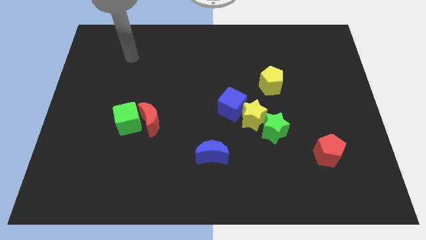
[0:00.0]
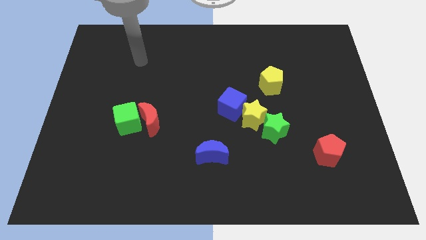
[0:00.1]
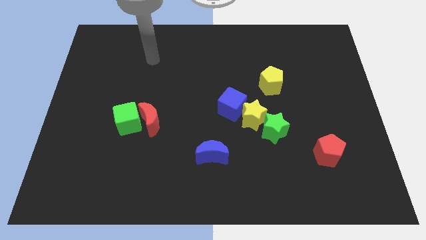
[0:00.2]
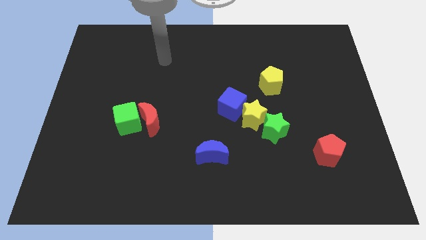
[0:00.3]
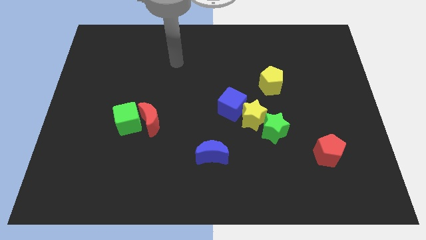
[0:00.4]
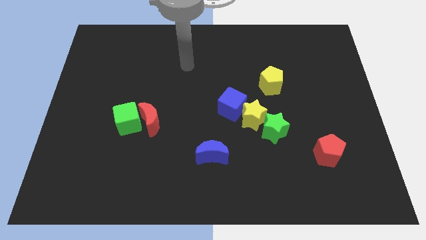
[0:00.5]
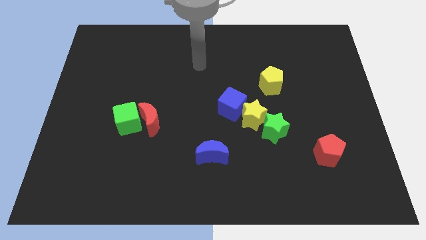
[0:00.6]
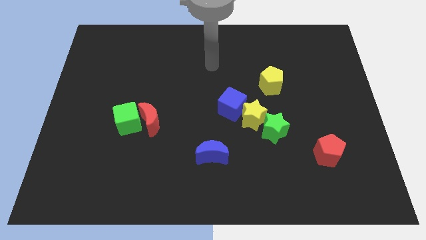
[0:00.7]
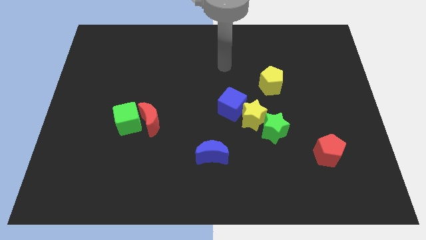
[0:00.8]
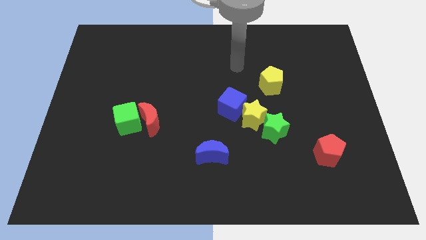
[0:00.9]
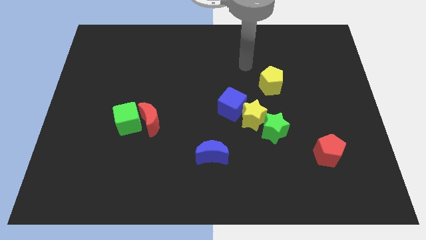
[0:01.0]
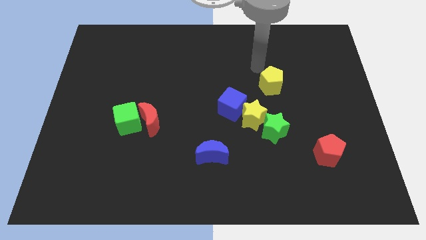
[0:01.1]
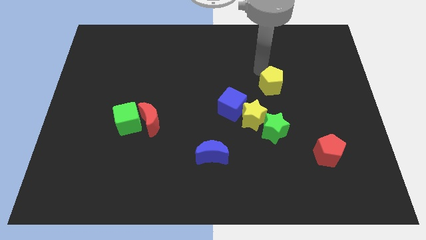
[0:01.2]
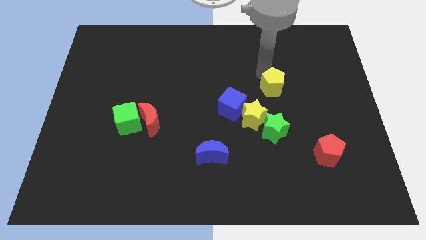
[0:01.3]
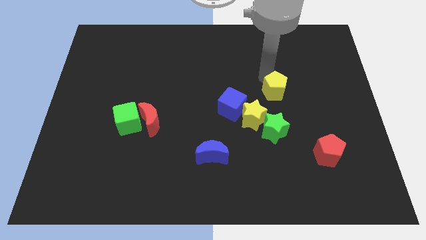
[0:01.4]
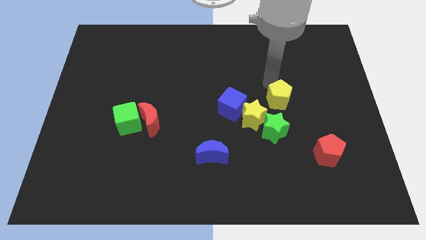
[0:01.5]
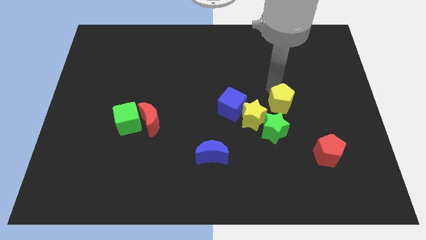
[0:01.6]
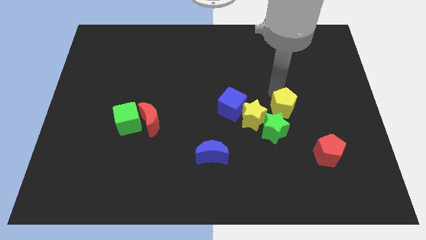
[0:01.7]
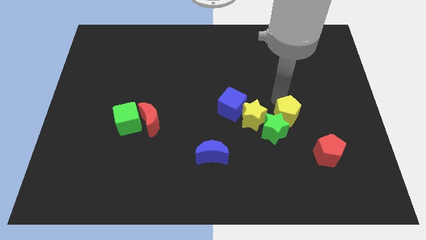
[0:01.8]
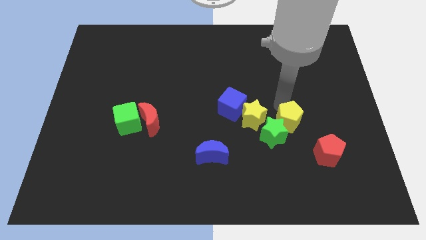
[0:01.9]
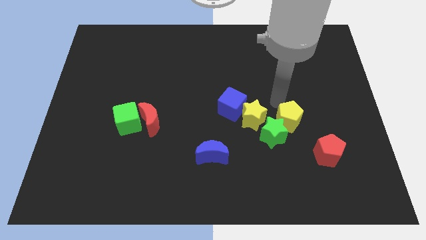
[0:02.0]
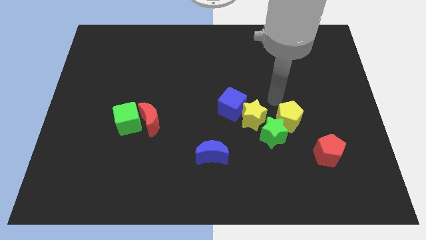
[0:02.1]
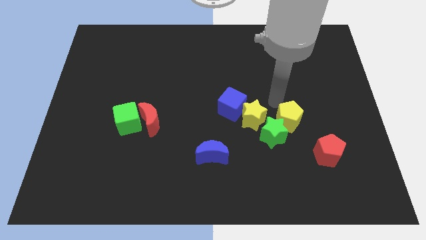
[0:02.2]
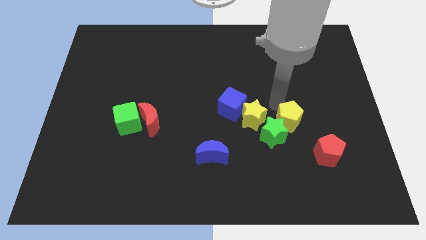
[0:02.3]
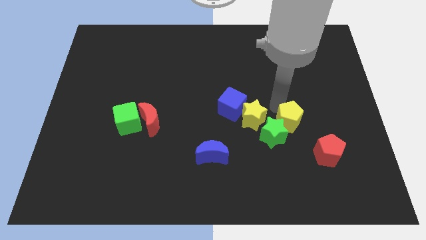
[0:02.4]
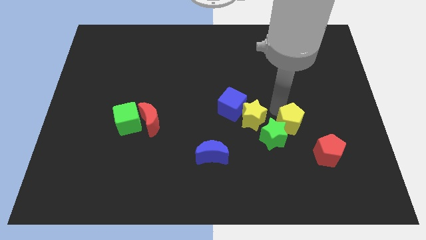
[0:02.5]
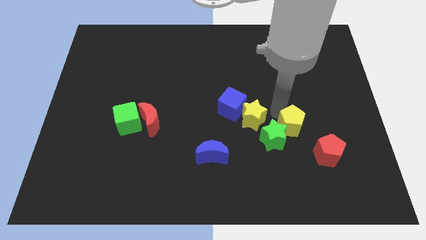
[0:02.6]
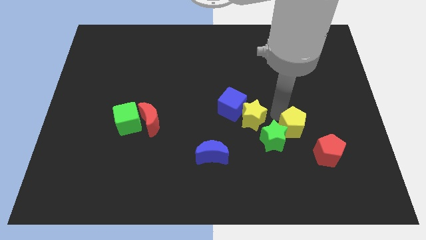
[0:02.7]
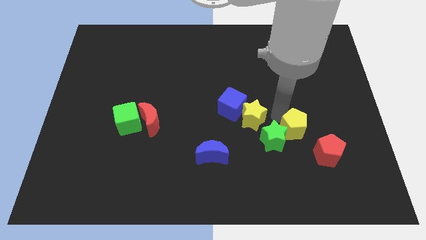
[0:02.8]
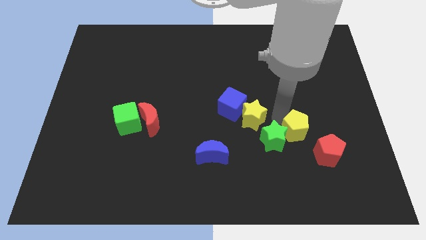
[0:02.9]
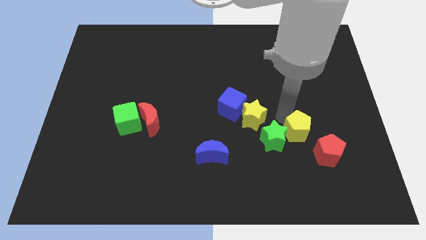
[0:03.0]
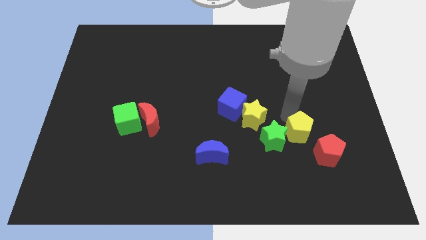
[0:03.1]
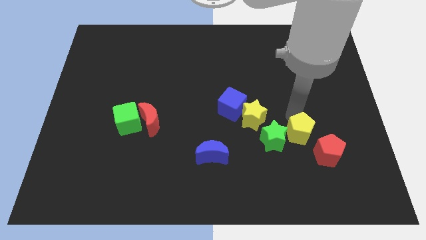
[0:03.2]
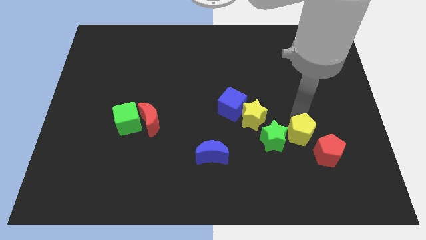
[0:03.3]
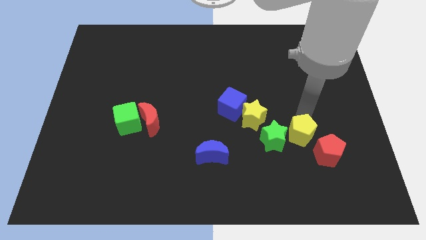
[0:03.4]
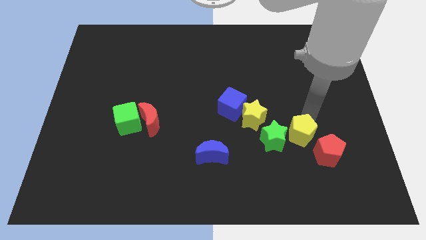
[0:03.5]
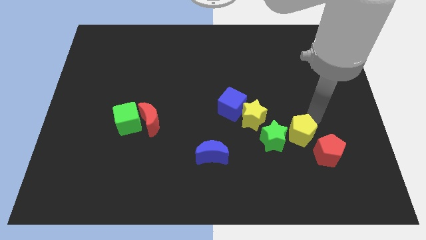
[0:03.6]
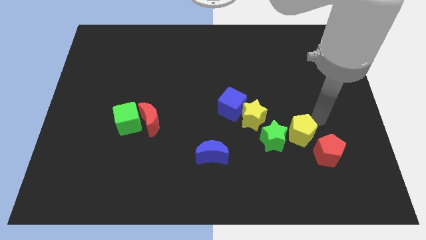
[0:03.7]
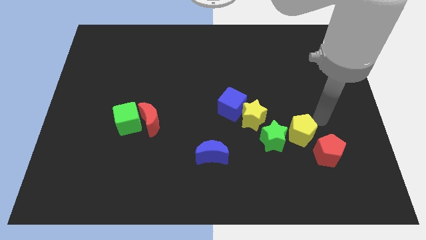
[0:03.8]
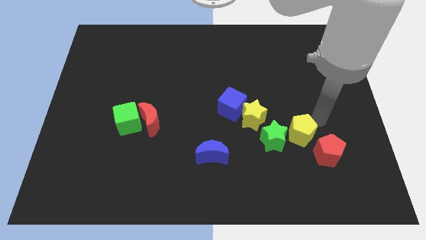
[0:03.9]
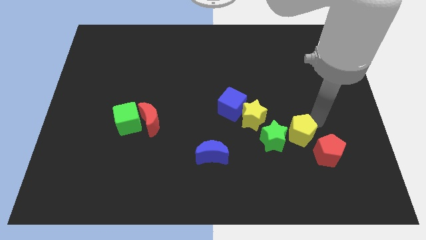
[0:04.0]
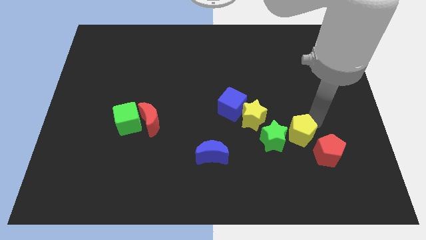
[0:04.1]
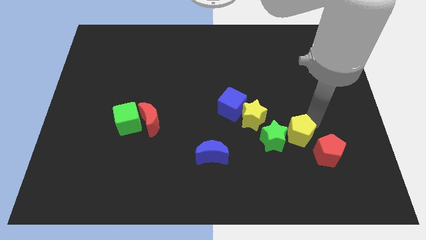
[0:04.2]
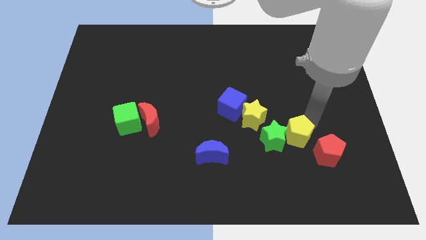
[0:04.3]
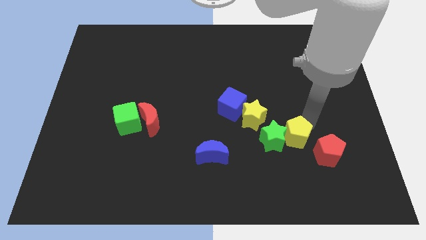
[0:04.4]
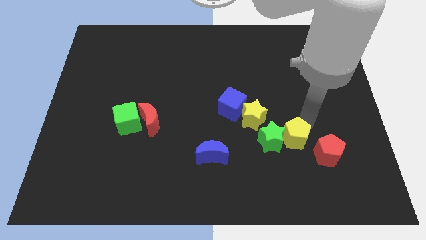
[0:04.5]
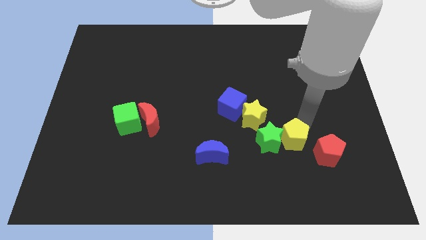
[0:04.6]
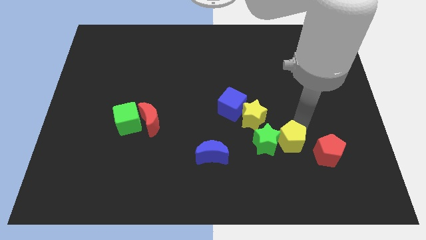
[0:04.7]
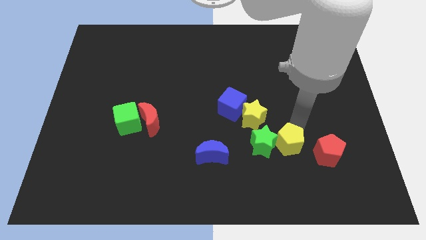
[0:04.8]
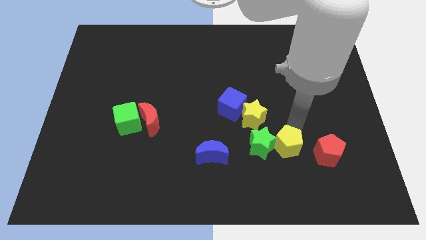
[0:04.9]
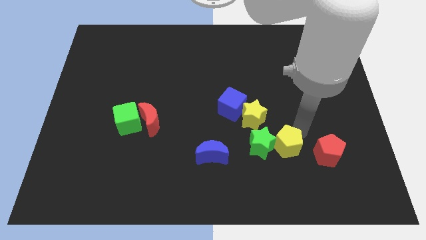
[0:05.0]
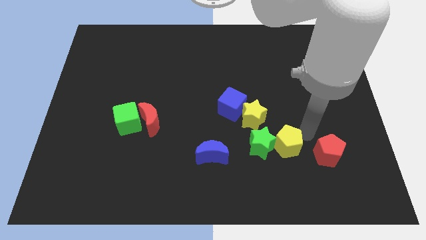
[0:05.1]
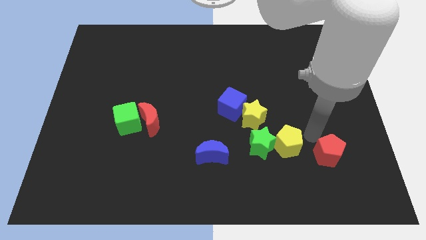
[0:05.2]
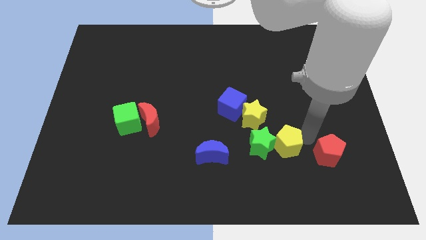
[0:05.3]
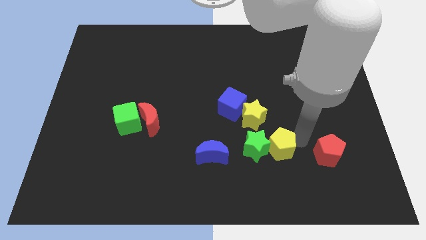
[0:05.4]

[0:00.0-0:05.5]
push the yellow pentagon just right of the blue moon

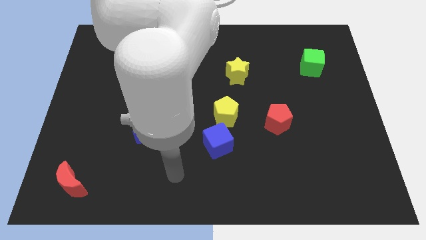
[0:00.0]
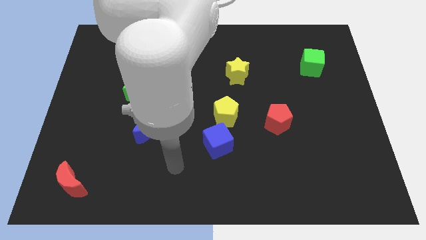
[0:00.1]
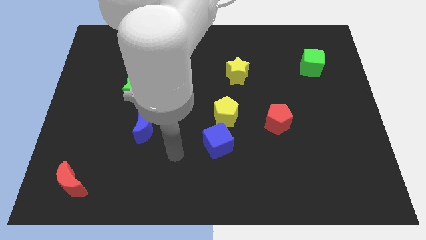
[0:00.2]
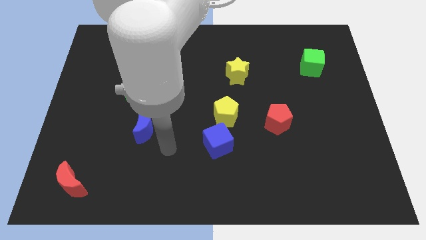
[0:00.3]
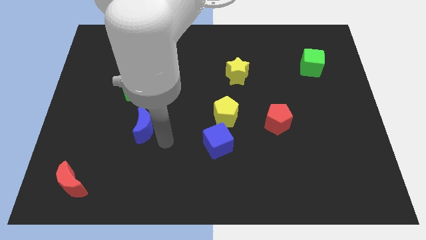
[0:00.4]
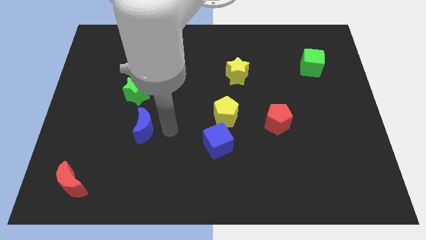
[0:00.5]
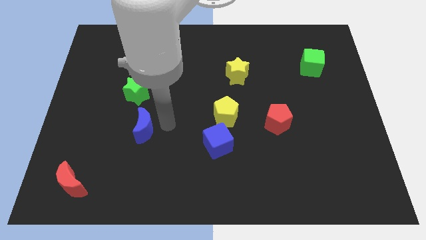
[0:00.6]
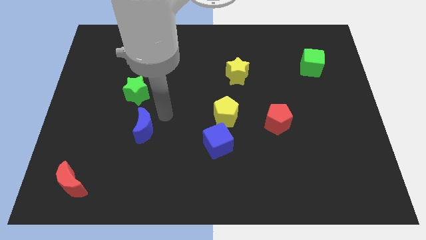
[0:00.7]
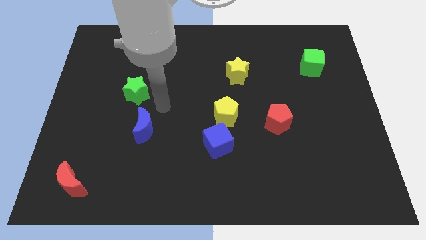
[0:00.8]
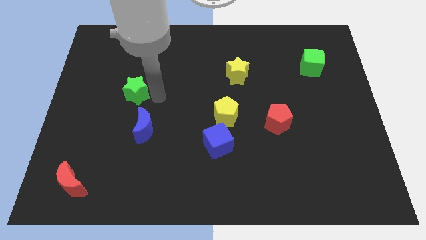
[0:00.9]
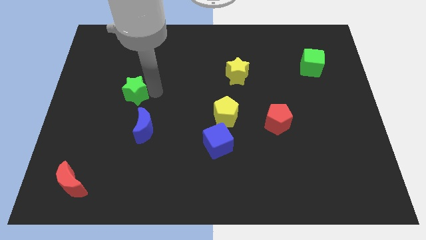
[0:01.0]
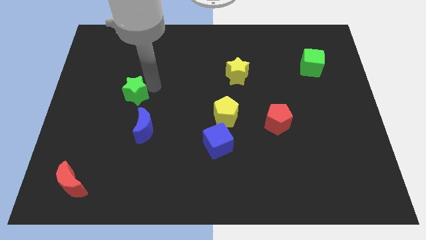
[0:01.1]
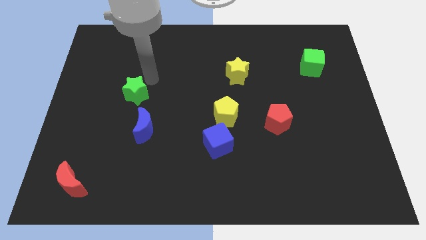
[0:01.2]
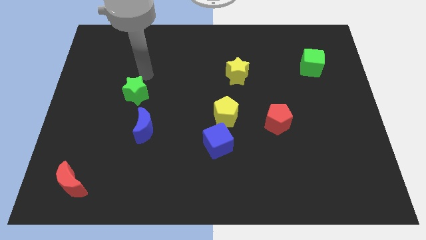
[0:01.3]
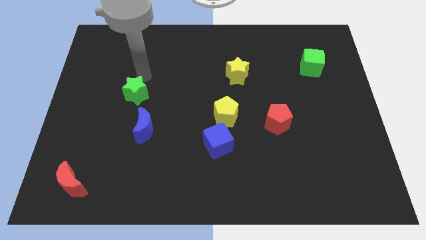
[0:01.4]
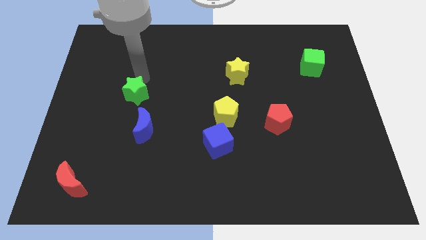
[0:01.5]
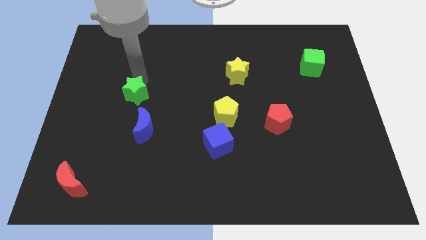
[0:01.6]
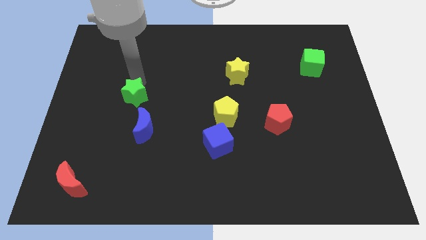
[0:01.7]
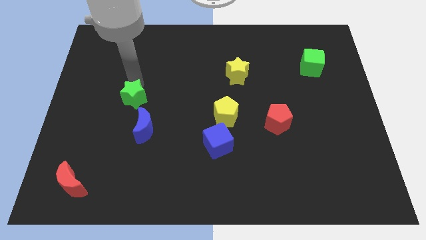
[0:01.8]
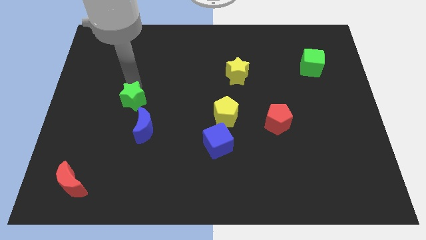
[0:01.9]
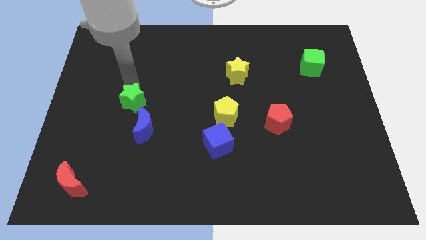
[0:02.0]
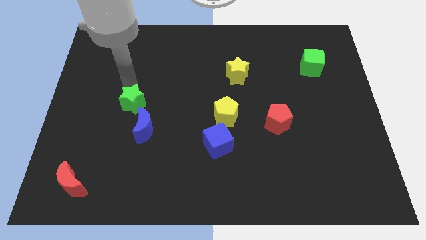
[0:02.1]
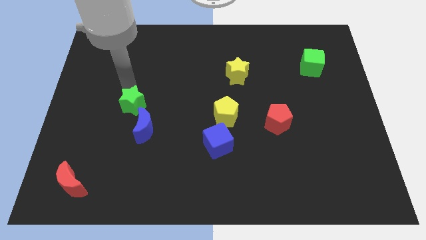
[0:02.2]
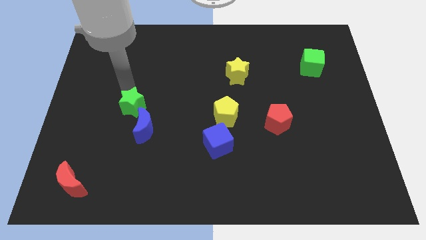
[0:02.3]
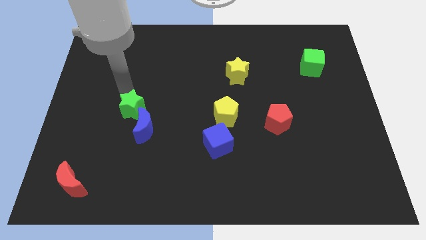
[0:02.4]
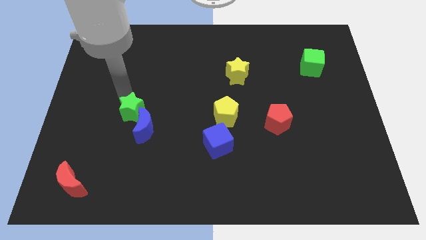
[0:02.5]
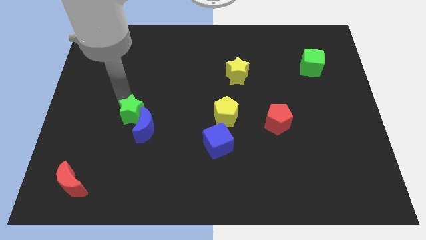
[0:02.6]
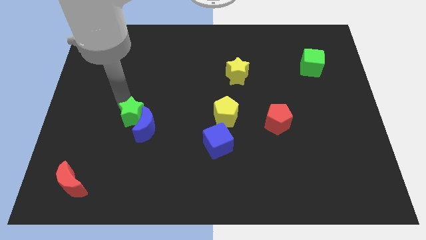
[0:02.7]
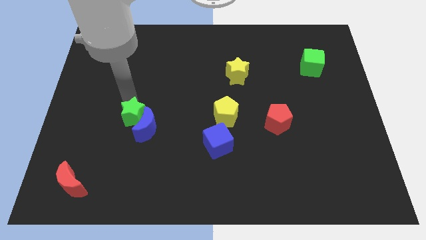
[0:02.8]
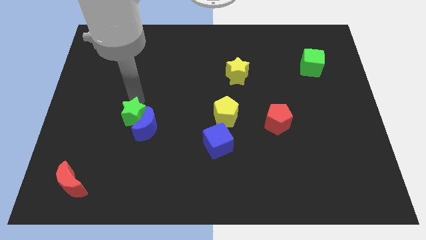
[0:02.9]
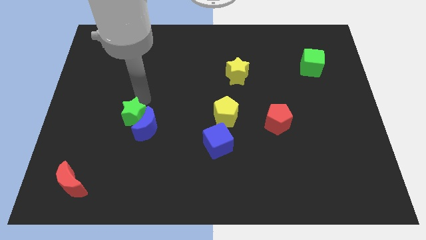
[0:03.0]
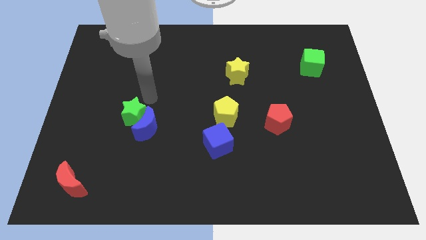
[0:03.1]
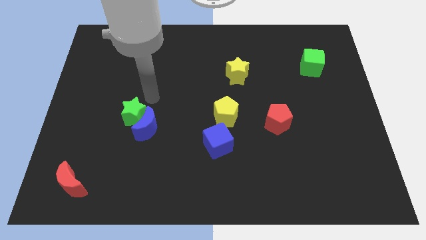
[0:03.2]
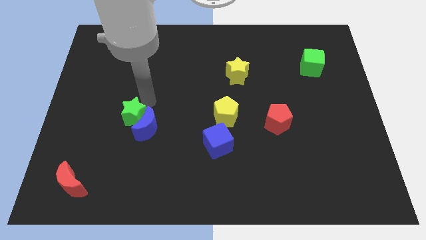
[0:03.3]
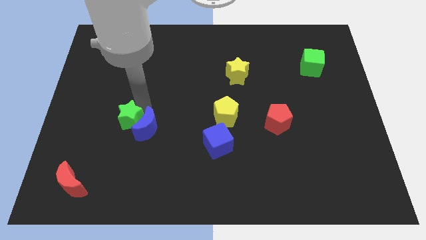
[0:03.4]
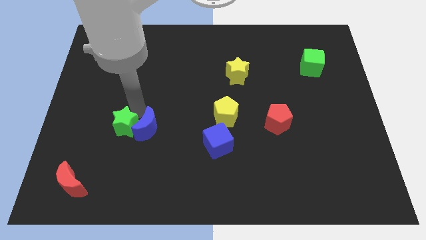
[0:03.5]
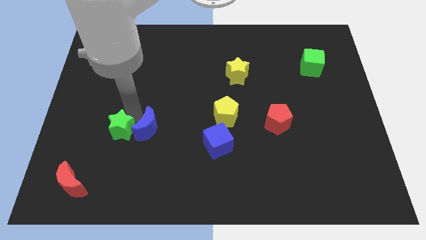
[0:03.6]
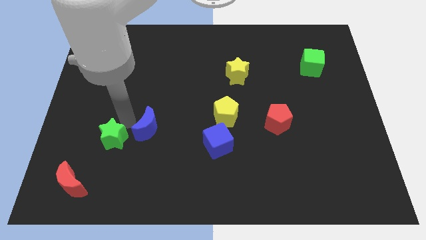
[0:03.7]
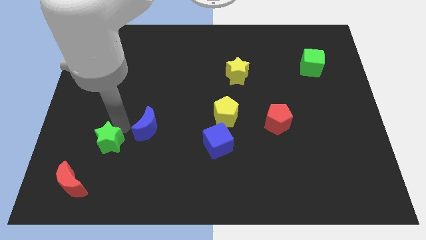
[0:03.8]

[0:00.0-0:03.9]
move the green star diagonally up and to the right of the red moon
